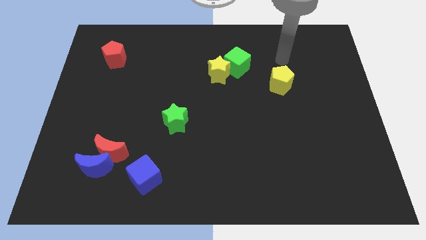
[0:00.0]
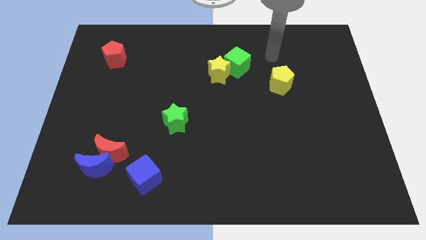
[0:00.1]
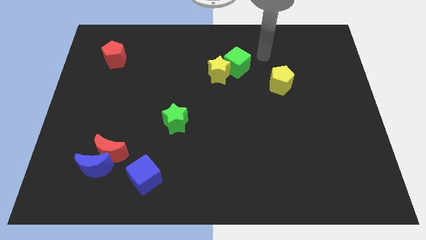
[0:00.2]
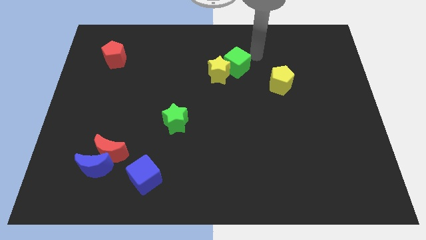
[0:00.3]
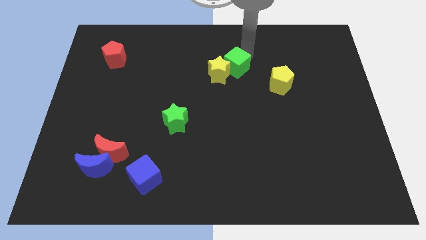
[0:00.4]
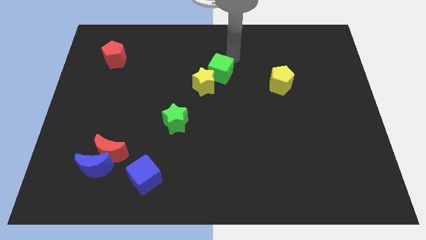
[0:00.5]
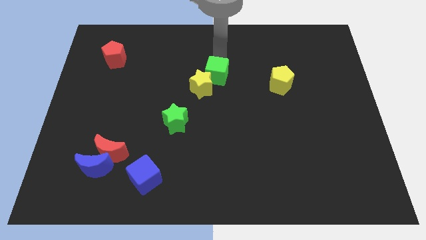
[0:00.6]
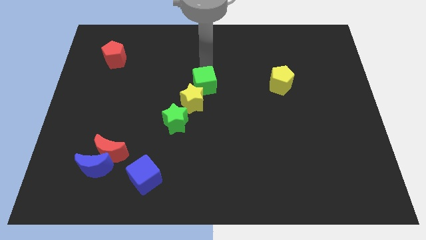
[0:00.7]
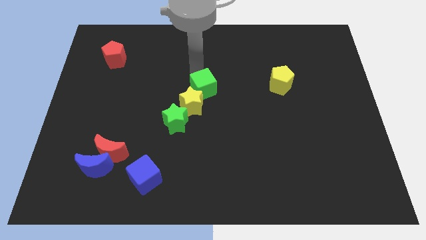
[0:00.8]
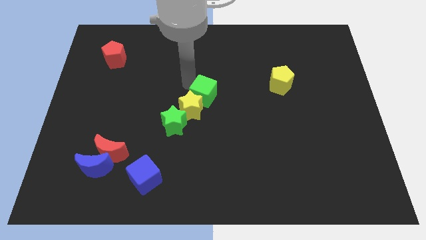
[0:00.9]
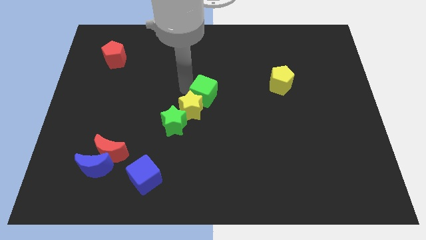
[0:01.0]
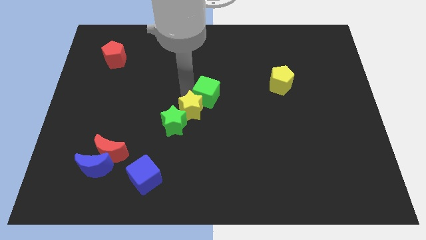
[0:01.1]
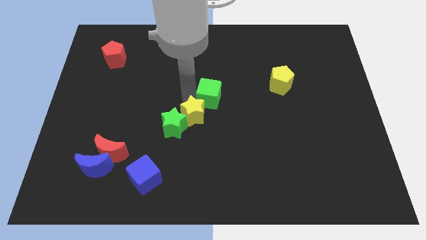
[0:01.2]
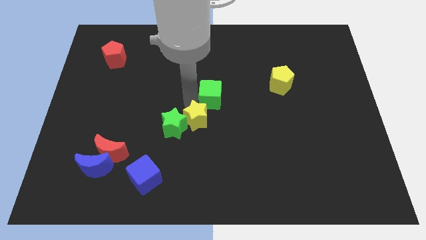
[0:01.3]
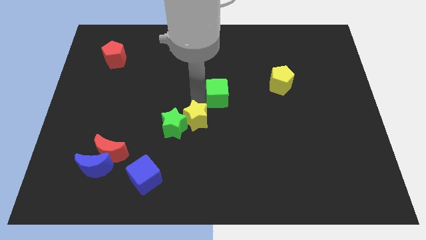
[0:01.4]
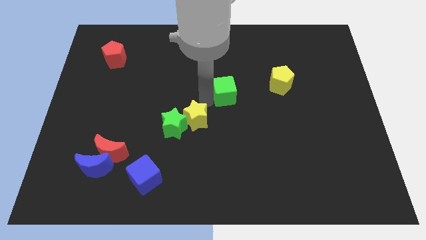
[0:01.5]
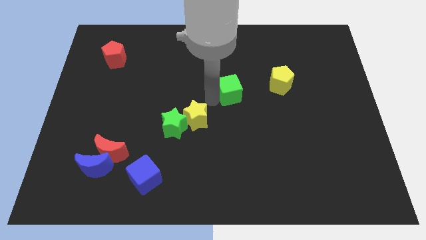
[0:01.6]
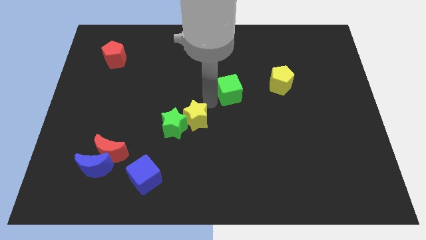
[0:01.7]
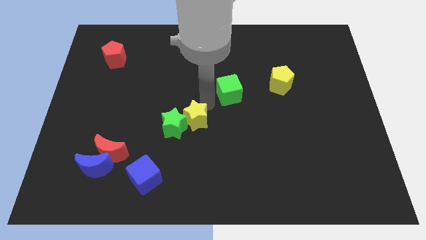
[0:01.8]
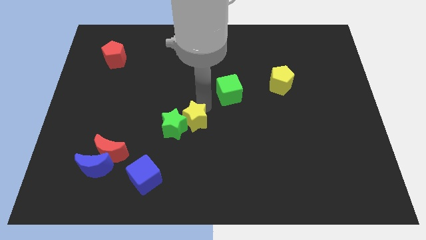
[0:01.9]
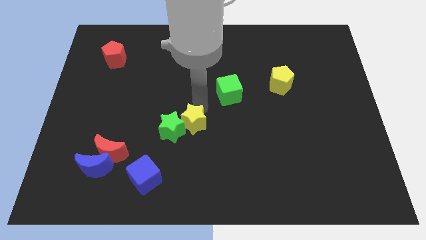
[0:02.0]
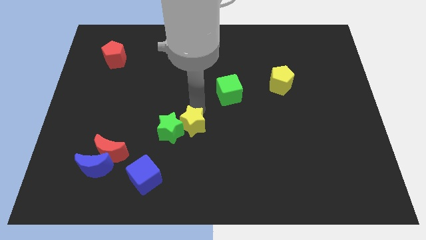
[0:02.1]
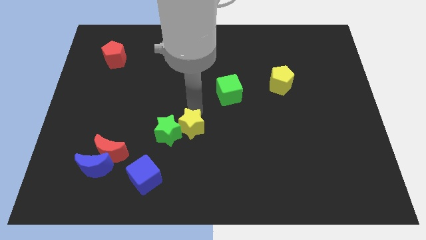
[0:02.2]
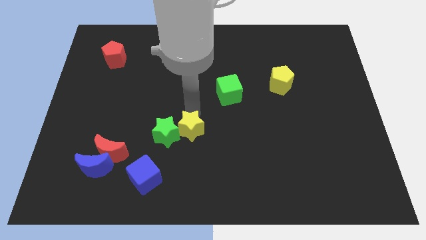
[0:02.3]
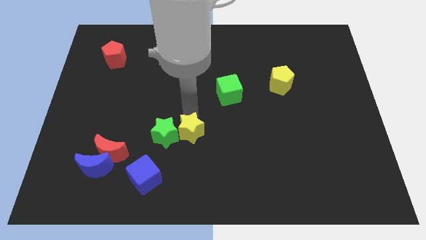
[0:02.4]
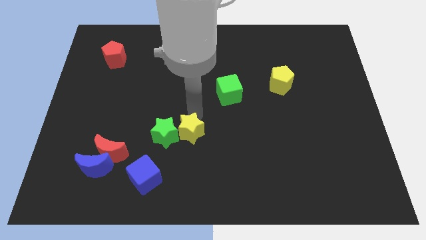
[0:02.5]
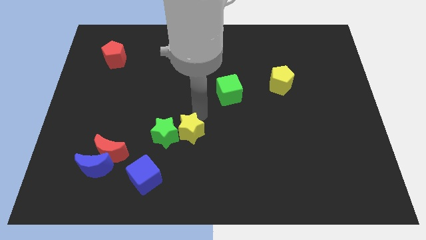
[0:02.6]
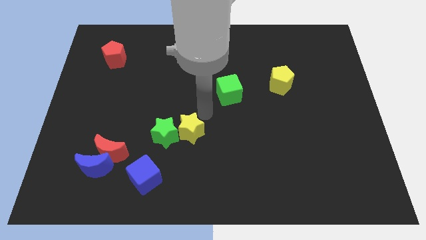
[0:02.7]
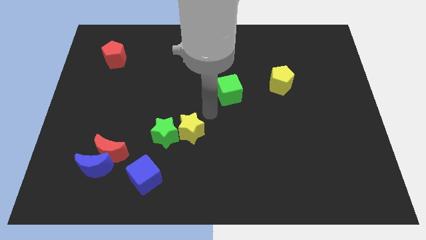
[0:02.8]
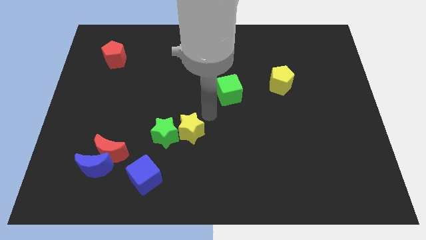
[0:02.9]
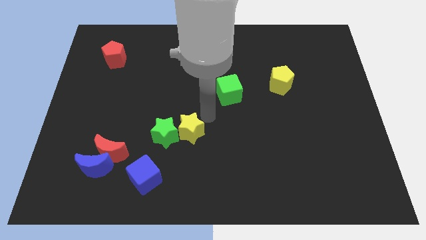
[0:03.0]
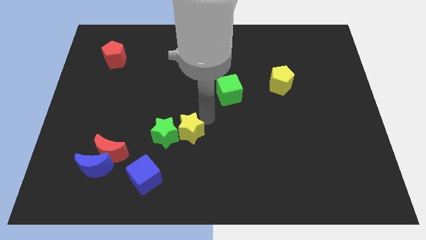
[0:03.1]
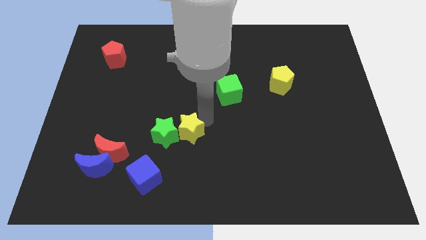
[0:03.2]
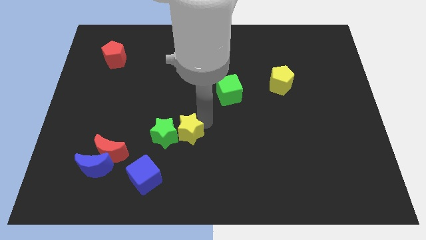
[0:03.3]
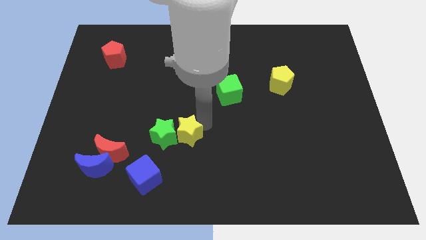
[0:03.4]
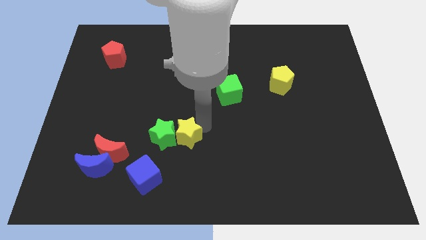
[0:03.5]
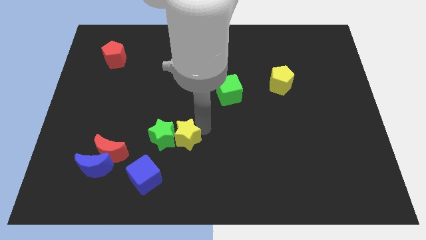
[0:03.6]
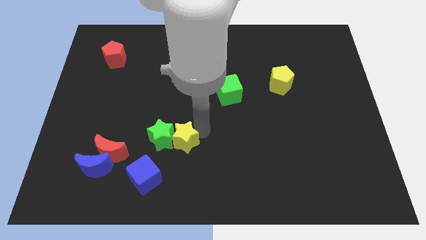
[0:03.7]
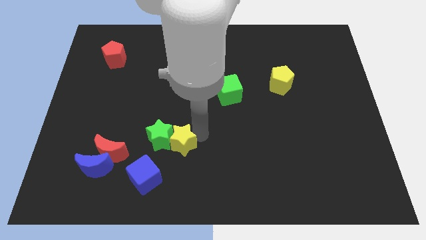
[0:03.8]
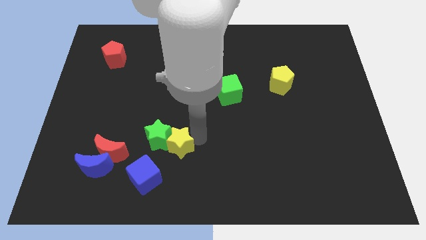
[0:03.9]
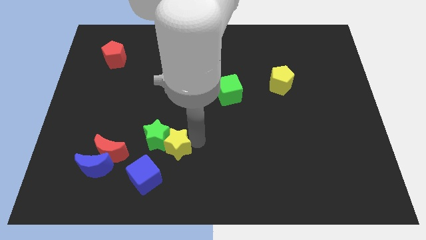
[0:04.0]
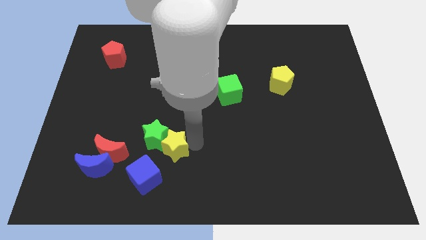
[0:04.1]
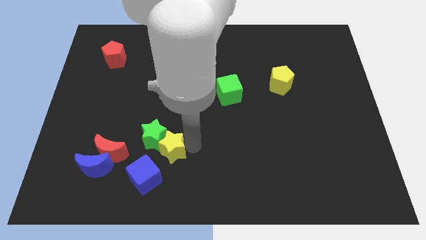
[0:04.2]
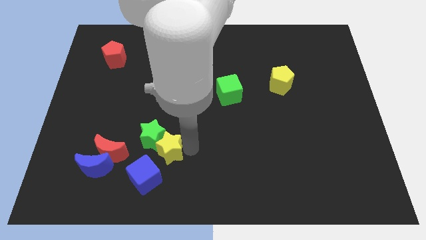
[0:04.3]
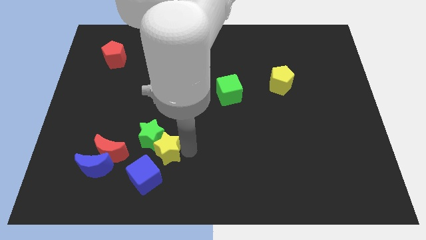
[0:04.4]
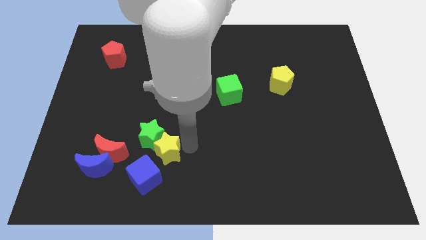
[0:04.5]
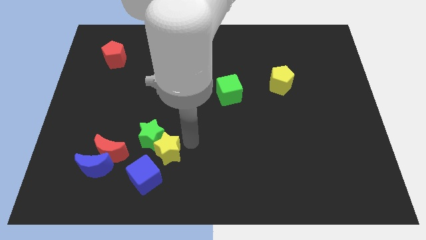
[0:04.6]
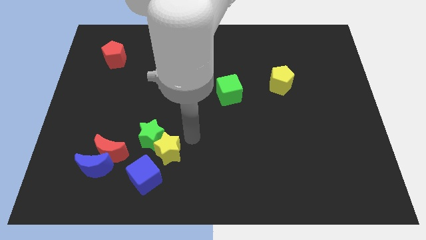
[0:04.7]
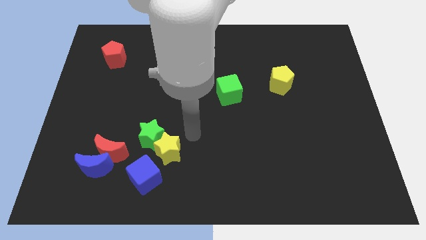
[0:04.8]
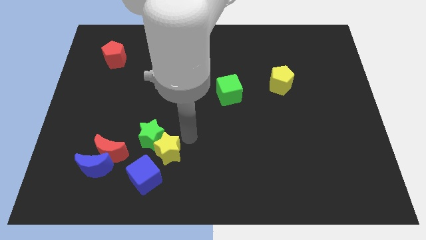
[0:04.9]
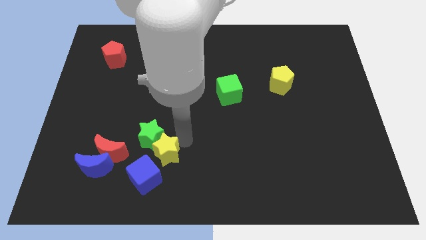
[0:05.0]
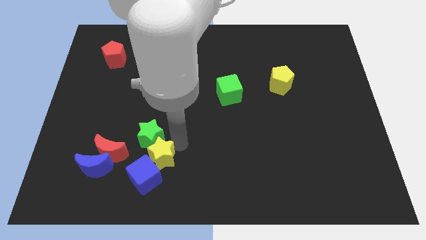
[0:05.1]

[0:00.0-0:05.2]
put the yellow star towards the blue cube

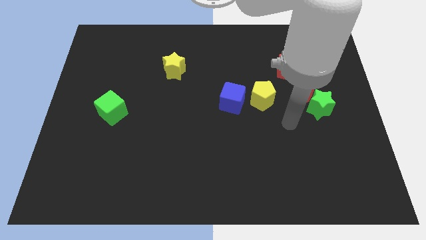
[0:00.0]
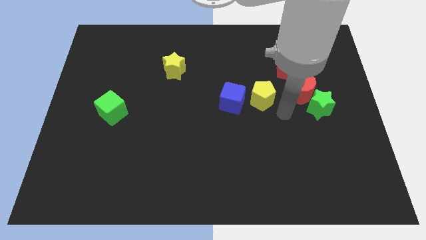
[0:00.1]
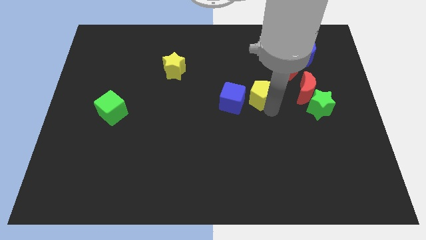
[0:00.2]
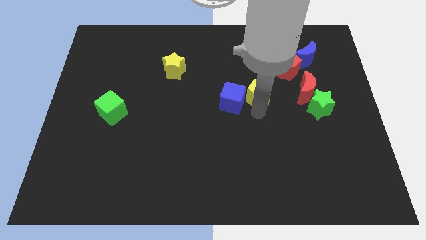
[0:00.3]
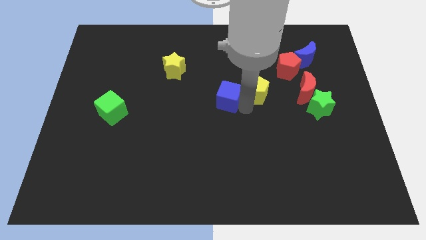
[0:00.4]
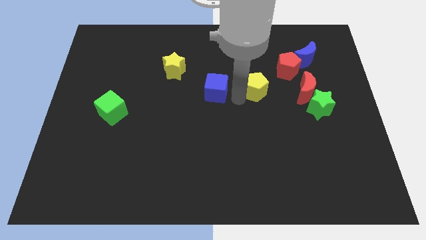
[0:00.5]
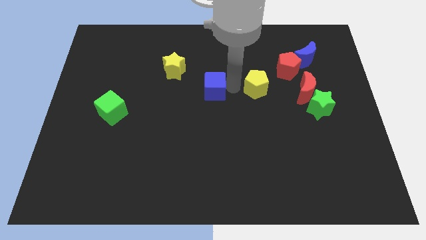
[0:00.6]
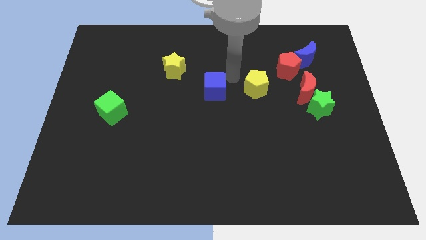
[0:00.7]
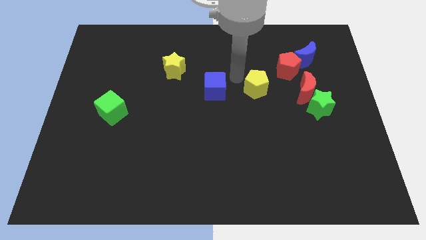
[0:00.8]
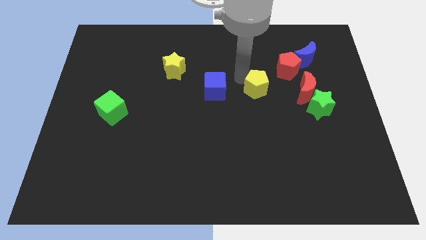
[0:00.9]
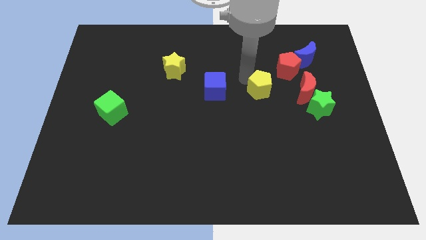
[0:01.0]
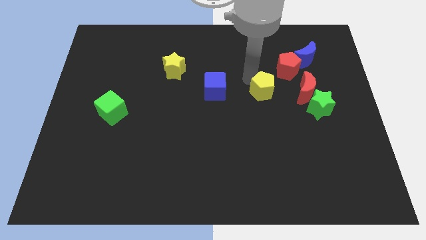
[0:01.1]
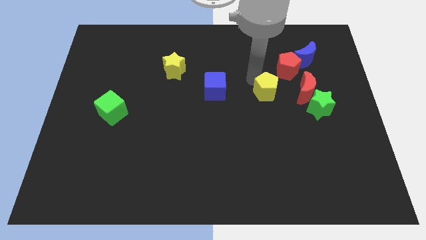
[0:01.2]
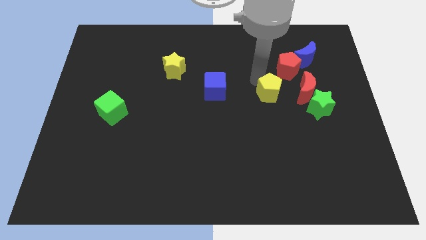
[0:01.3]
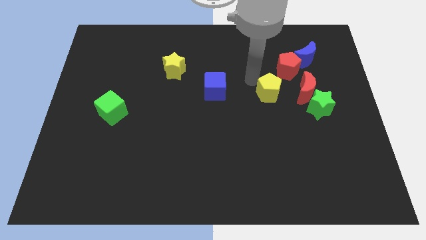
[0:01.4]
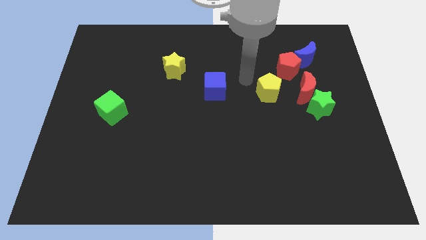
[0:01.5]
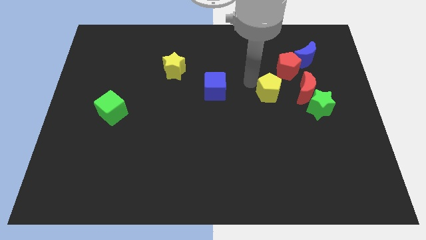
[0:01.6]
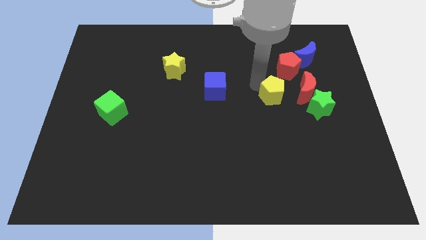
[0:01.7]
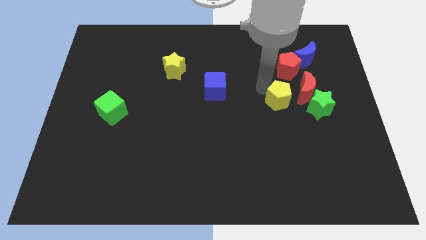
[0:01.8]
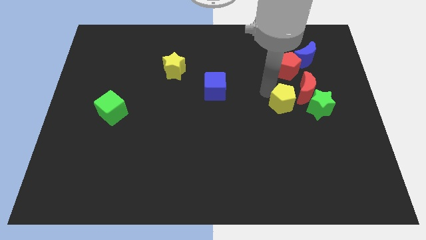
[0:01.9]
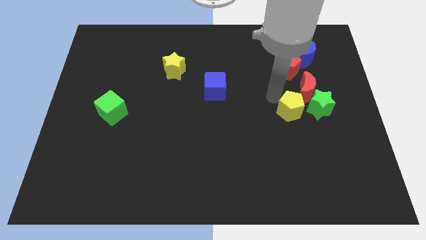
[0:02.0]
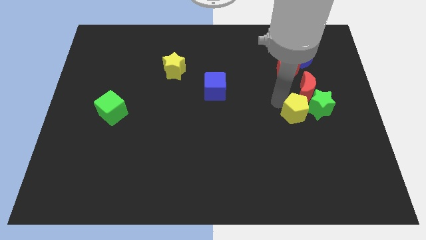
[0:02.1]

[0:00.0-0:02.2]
slide the yellow pentagon close to the green star

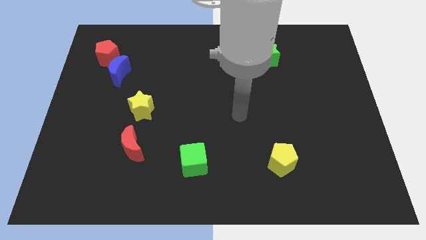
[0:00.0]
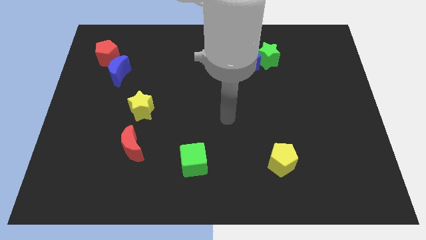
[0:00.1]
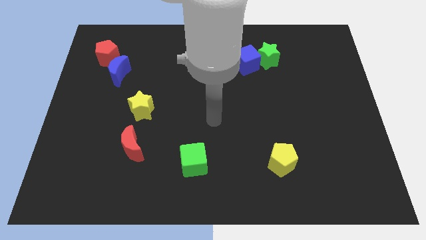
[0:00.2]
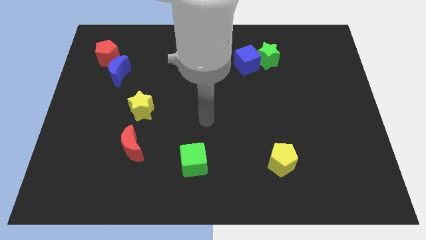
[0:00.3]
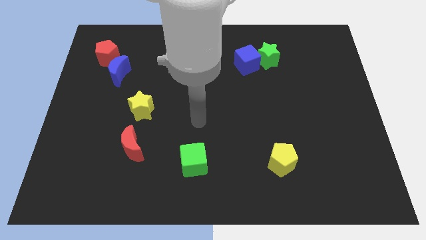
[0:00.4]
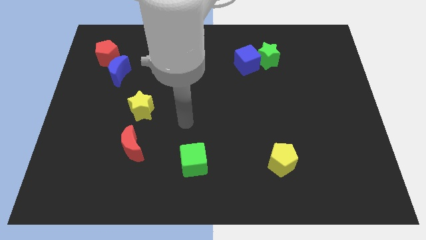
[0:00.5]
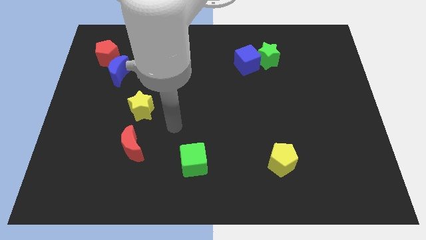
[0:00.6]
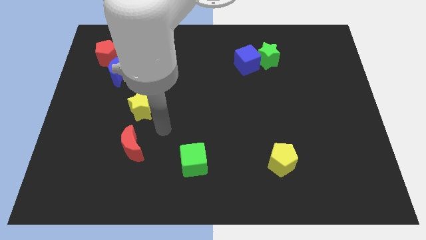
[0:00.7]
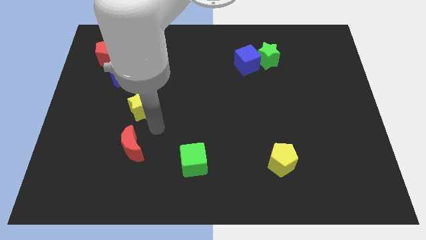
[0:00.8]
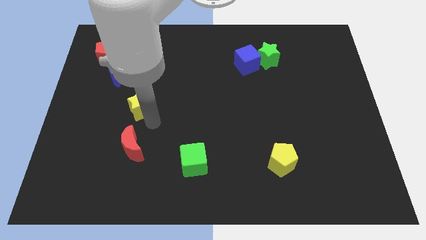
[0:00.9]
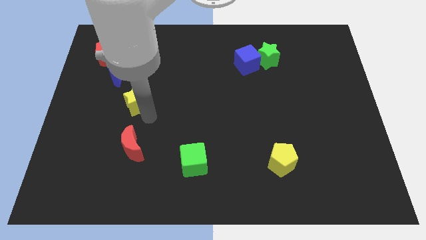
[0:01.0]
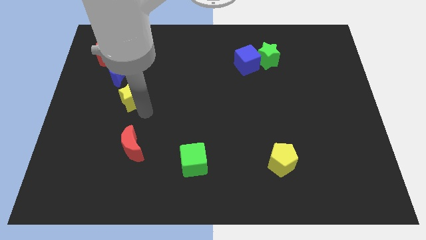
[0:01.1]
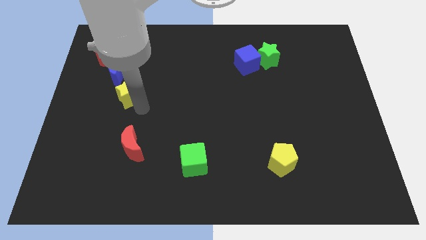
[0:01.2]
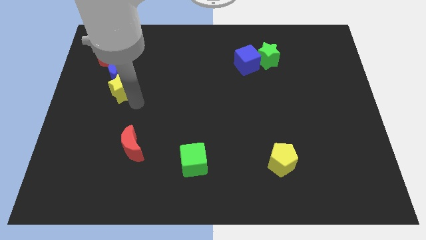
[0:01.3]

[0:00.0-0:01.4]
slide the yellow star towards the blue moon
